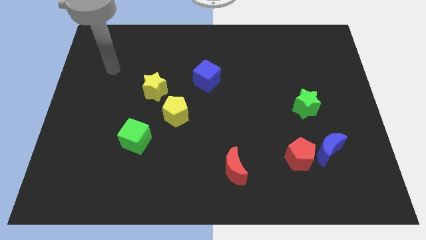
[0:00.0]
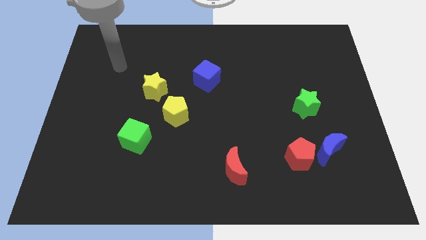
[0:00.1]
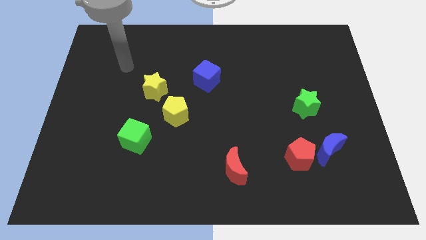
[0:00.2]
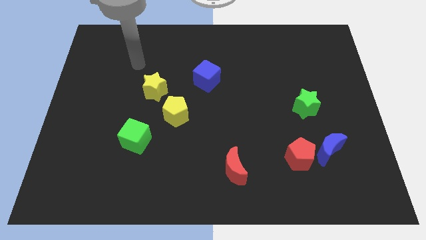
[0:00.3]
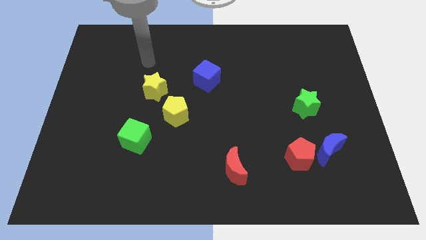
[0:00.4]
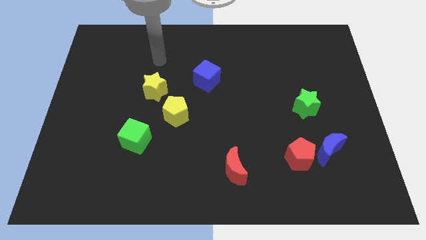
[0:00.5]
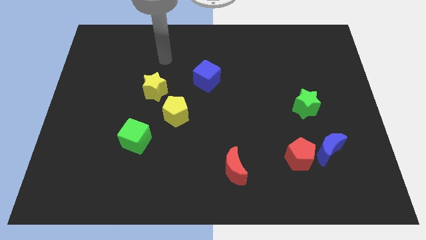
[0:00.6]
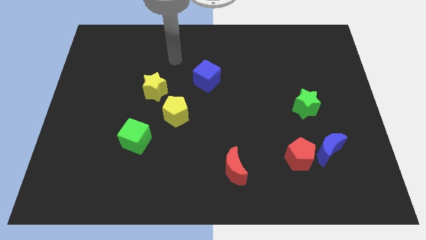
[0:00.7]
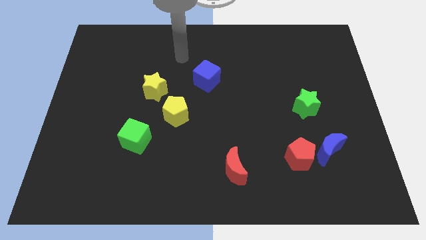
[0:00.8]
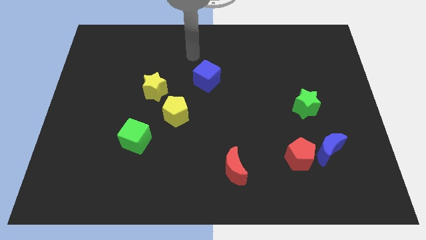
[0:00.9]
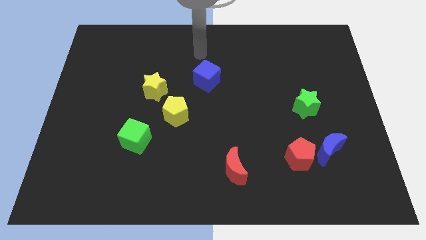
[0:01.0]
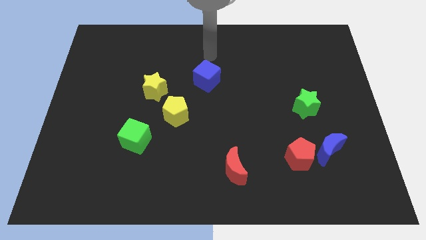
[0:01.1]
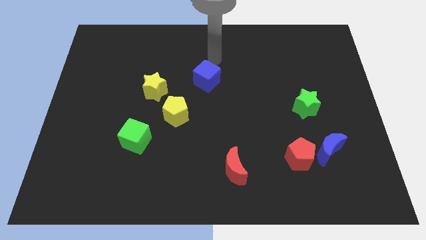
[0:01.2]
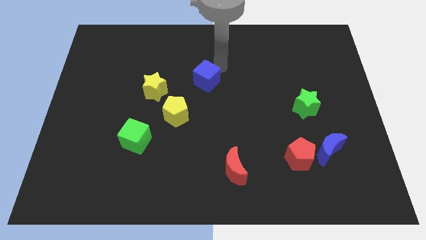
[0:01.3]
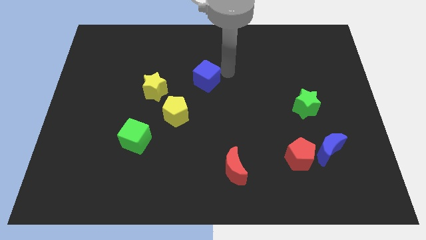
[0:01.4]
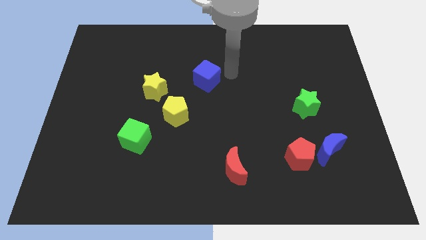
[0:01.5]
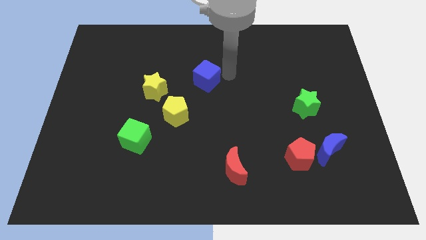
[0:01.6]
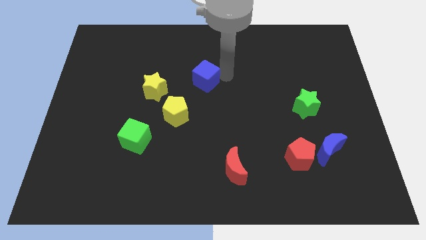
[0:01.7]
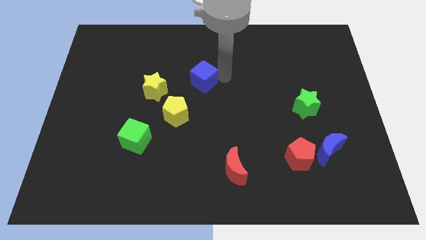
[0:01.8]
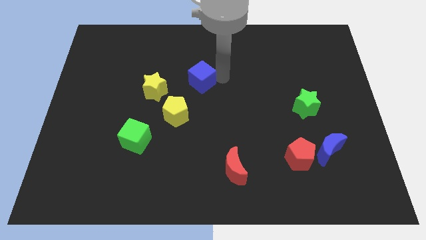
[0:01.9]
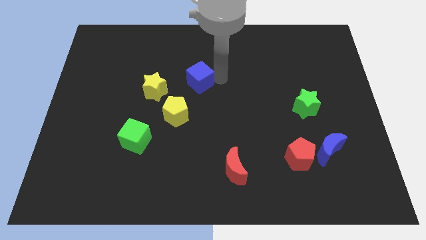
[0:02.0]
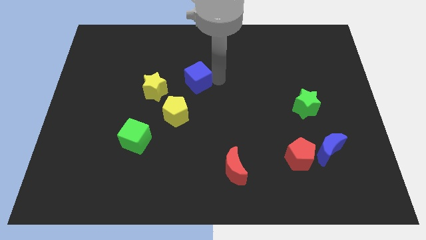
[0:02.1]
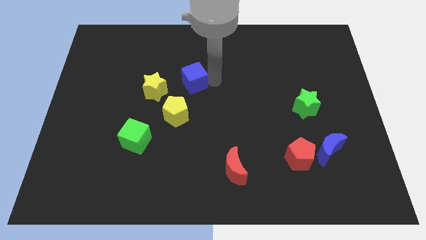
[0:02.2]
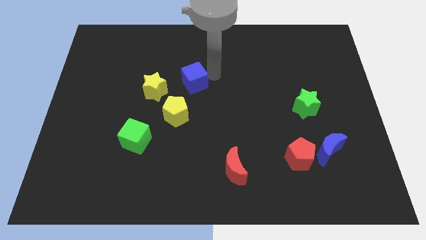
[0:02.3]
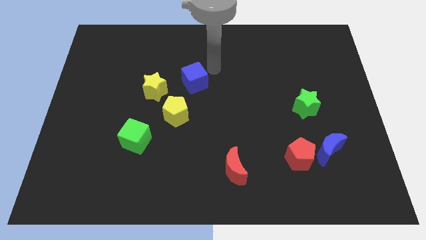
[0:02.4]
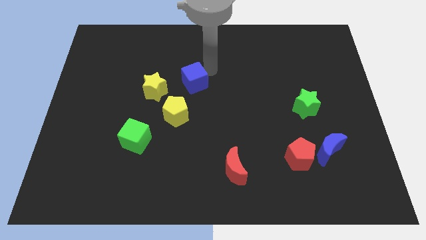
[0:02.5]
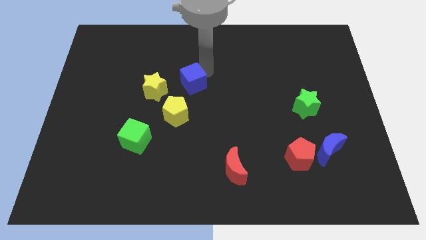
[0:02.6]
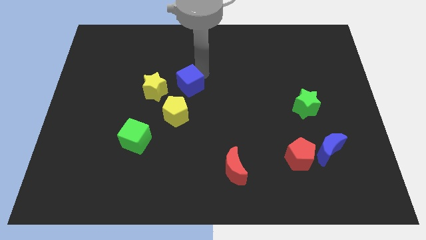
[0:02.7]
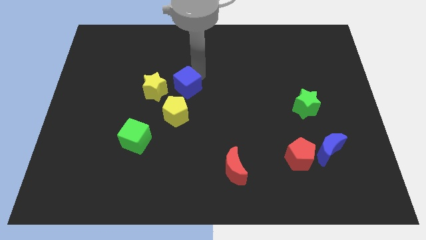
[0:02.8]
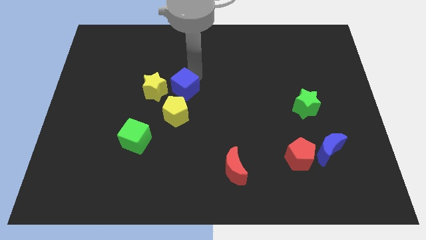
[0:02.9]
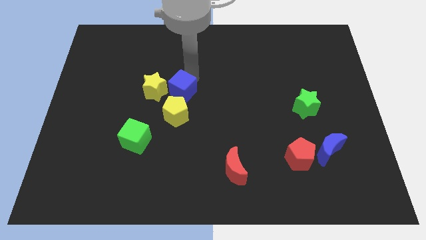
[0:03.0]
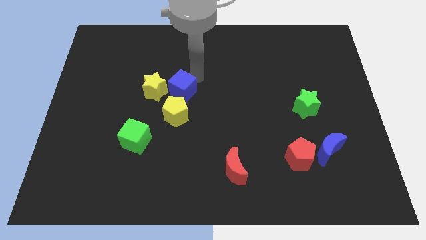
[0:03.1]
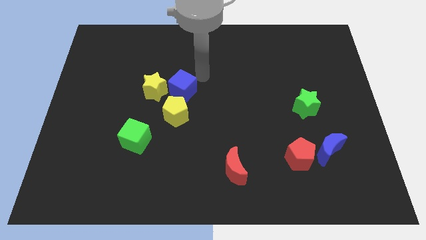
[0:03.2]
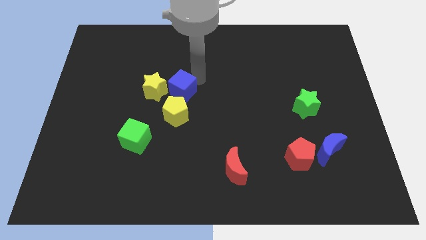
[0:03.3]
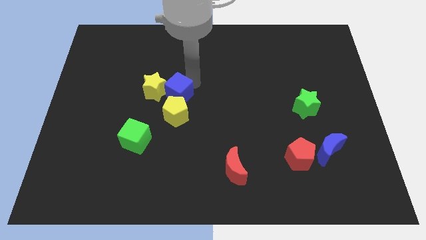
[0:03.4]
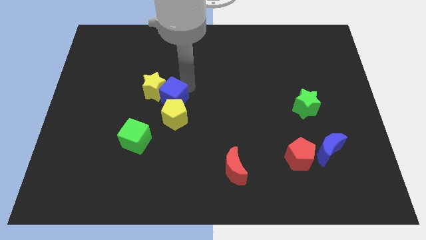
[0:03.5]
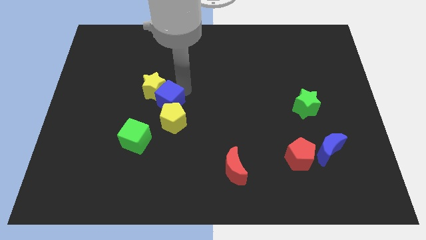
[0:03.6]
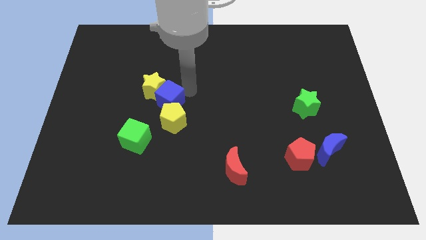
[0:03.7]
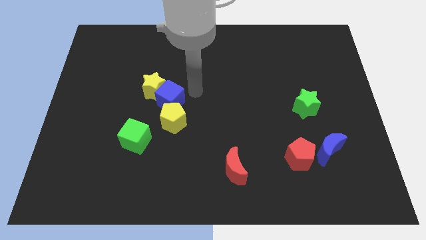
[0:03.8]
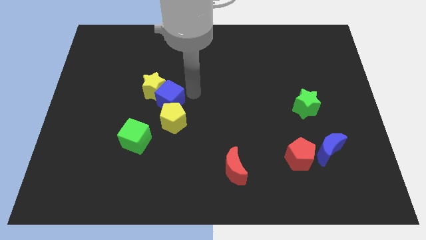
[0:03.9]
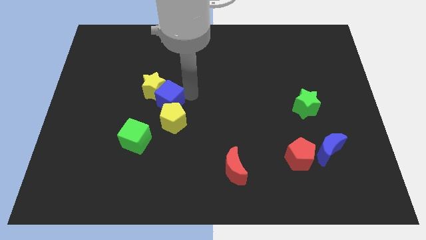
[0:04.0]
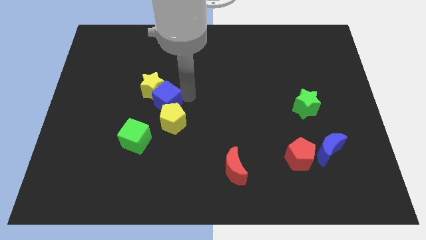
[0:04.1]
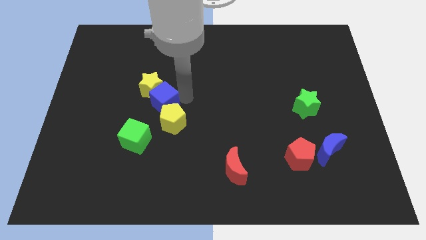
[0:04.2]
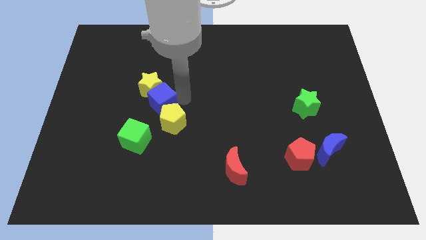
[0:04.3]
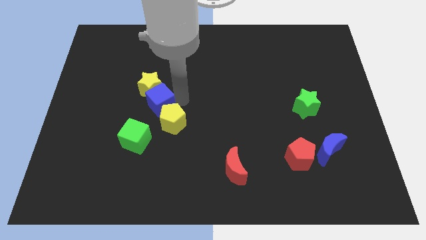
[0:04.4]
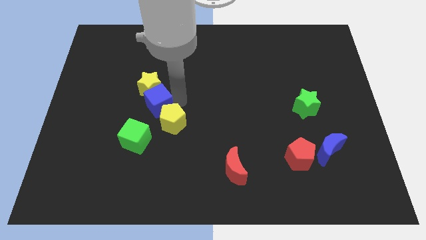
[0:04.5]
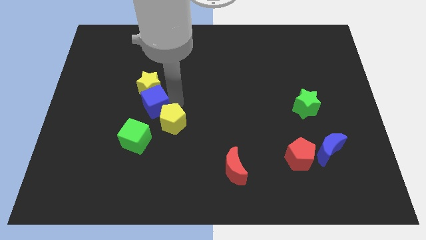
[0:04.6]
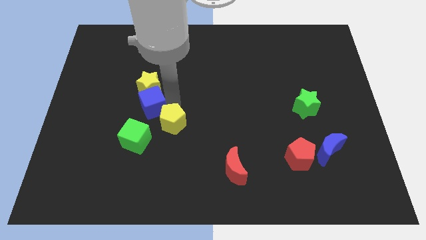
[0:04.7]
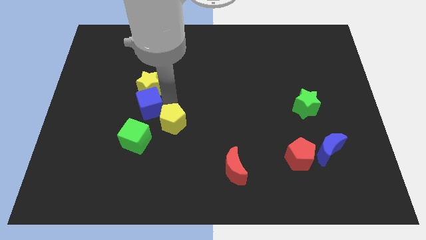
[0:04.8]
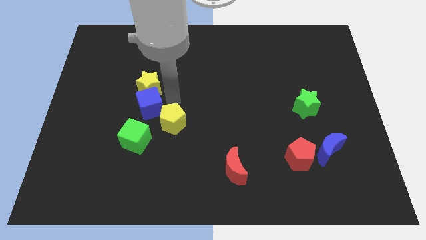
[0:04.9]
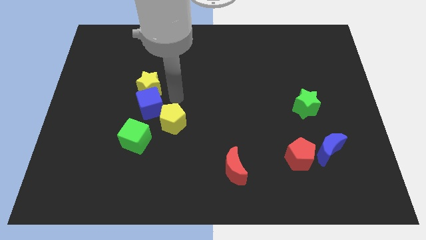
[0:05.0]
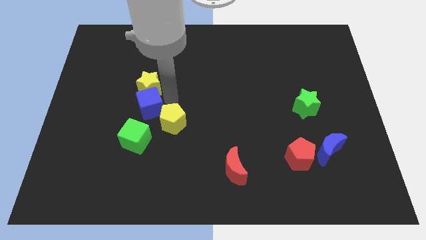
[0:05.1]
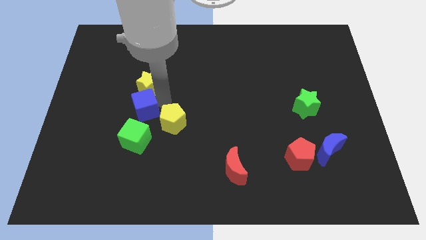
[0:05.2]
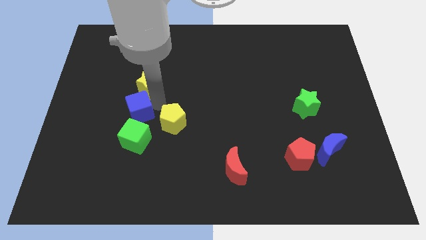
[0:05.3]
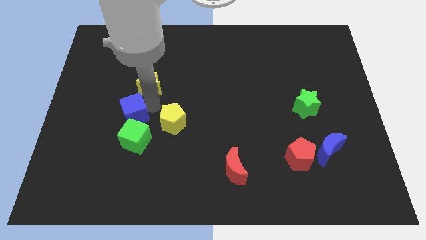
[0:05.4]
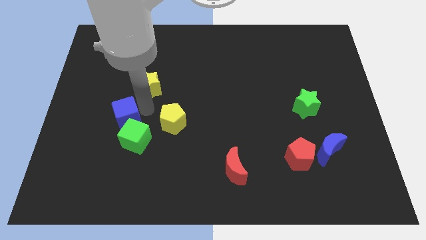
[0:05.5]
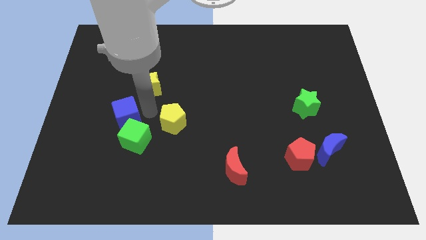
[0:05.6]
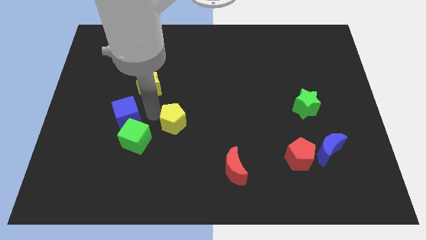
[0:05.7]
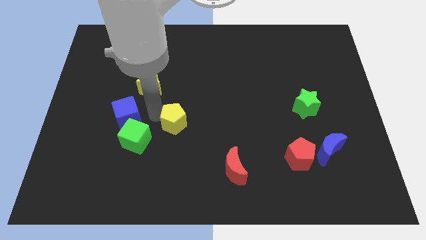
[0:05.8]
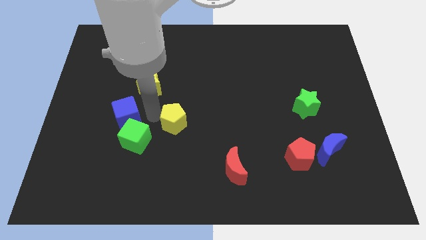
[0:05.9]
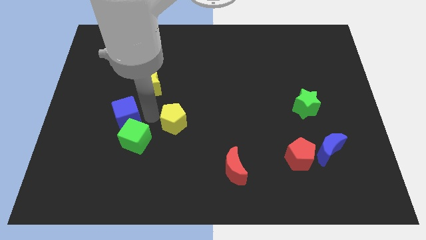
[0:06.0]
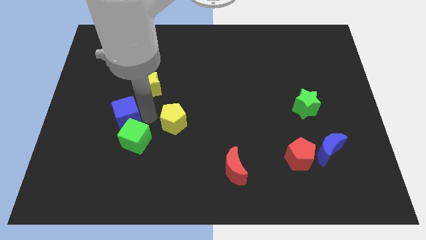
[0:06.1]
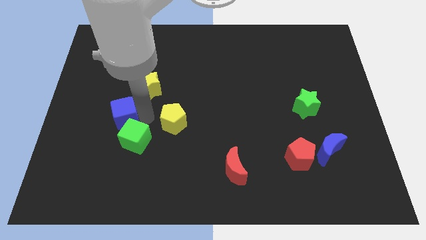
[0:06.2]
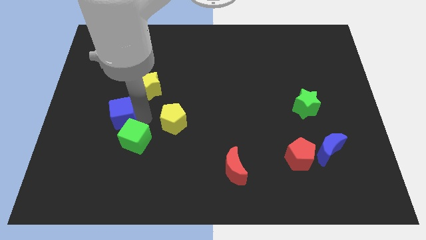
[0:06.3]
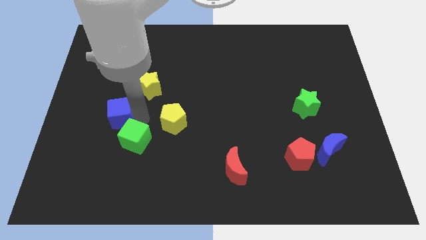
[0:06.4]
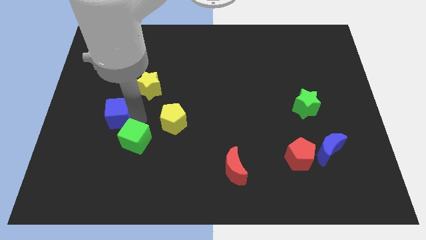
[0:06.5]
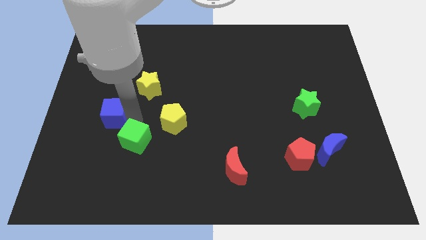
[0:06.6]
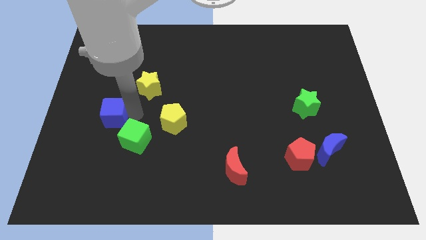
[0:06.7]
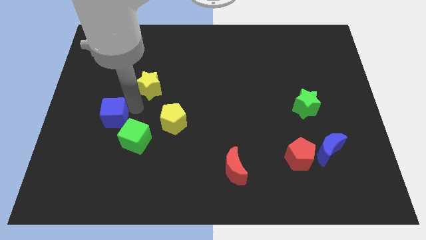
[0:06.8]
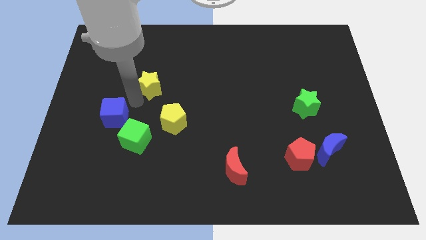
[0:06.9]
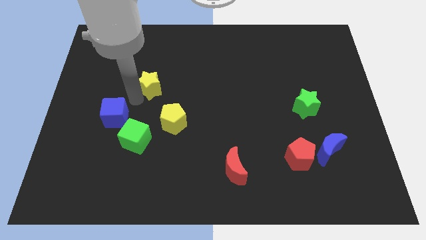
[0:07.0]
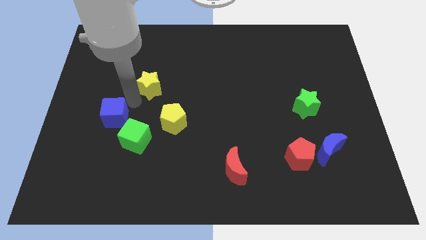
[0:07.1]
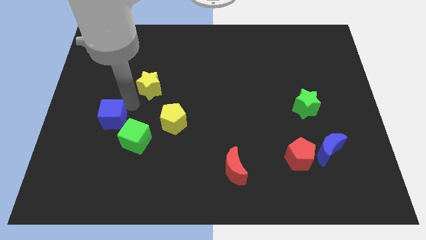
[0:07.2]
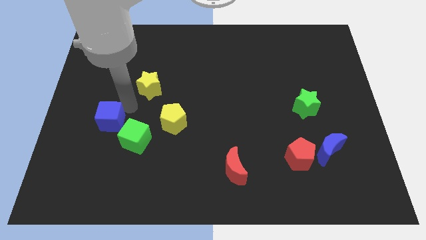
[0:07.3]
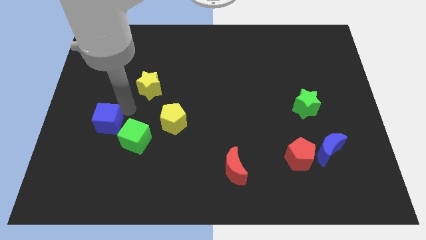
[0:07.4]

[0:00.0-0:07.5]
push the blue cube to the left of the green cube
